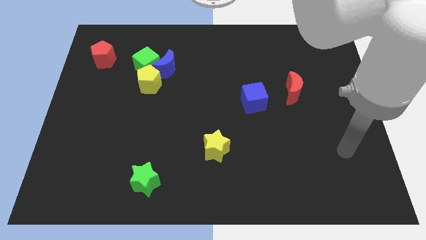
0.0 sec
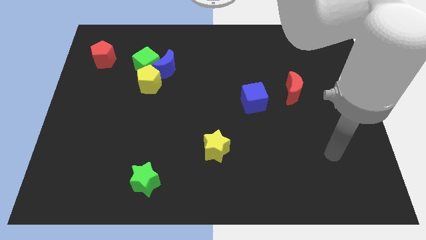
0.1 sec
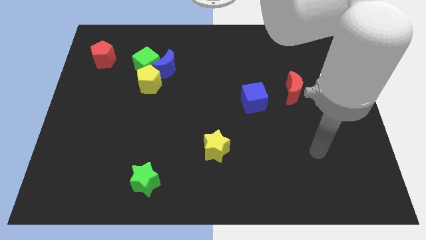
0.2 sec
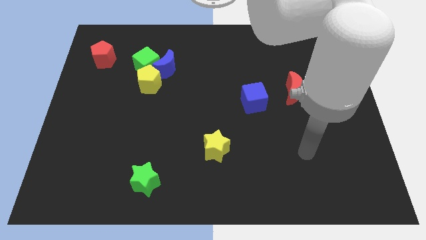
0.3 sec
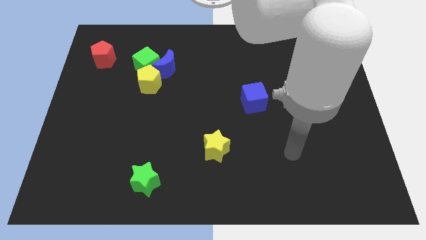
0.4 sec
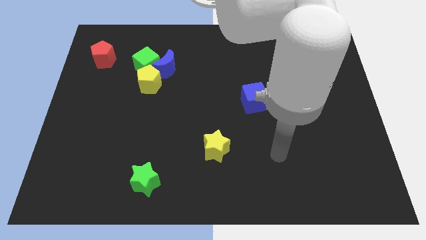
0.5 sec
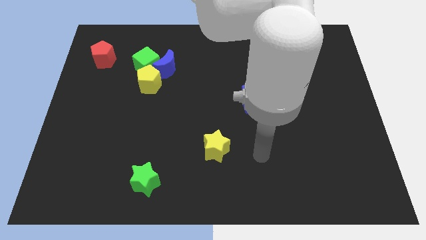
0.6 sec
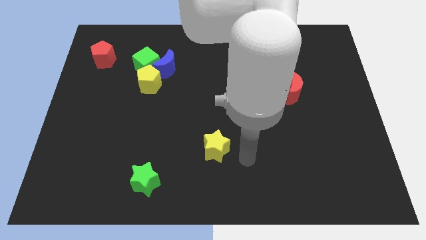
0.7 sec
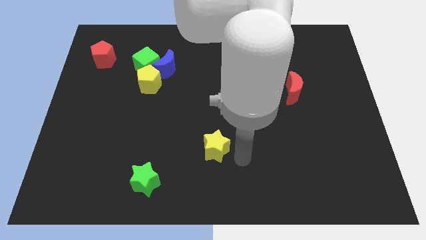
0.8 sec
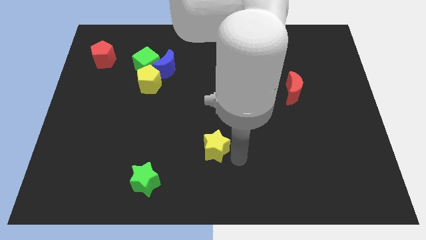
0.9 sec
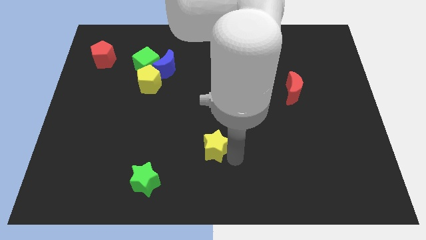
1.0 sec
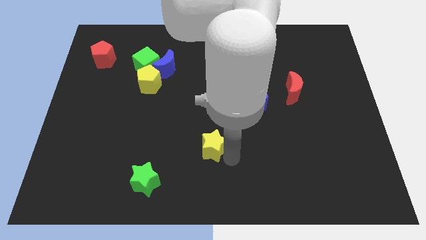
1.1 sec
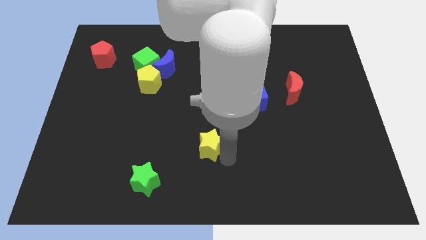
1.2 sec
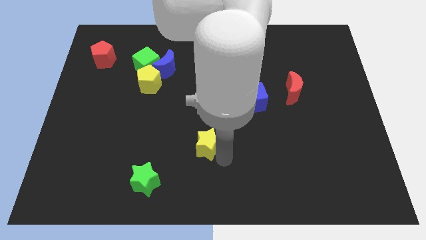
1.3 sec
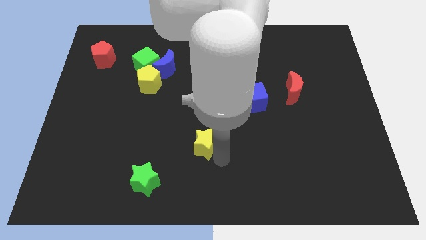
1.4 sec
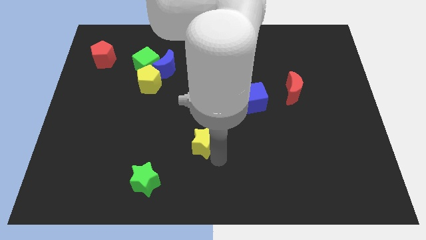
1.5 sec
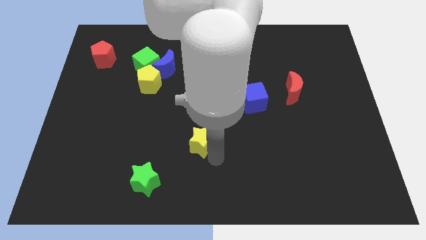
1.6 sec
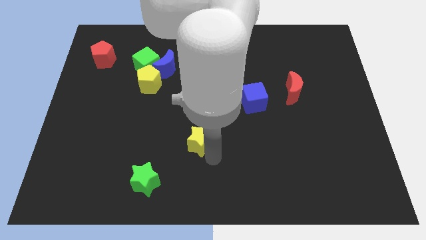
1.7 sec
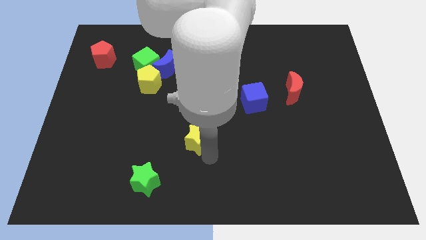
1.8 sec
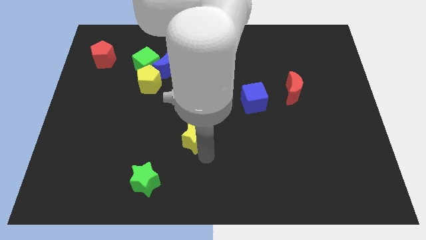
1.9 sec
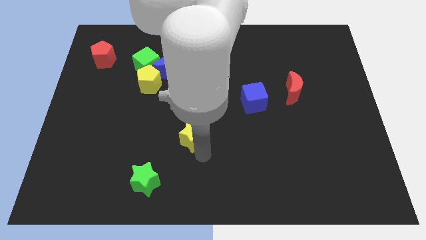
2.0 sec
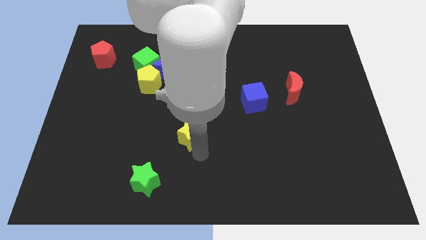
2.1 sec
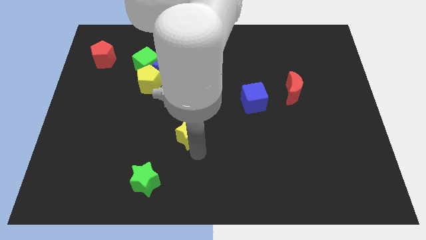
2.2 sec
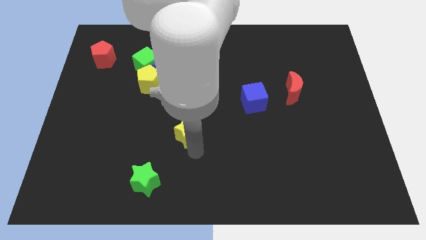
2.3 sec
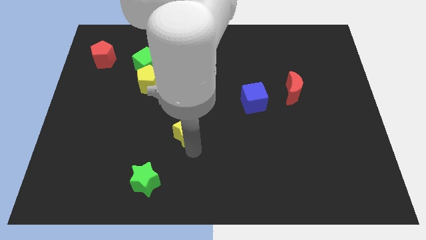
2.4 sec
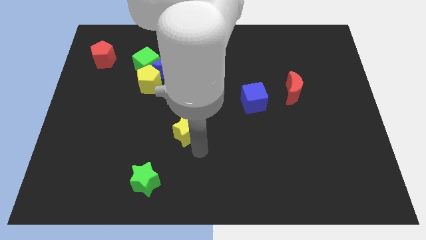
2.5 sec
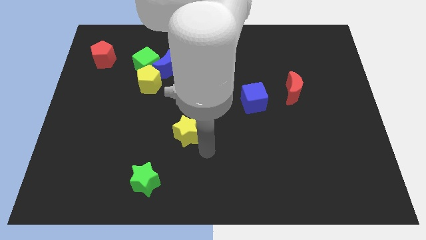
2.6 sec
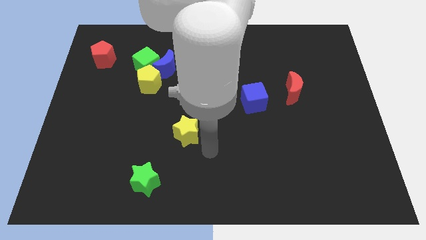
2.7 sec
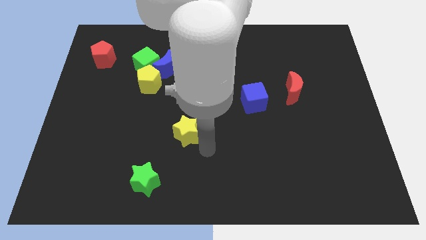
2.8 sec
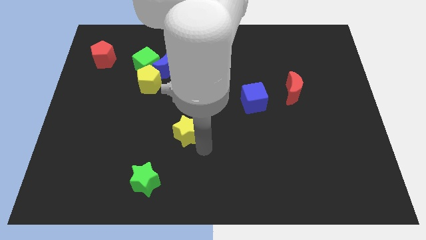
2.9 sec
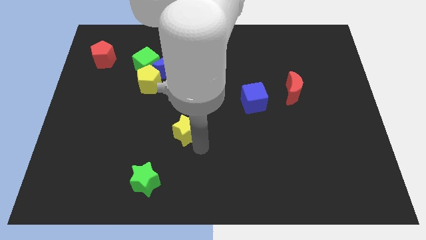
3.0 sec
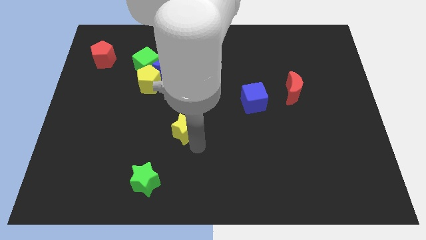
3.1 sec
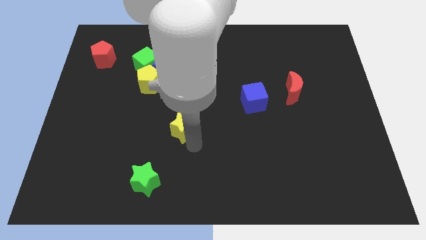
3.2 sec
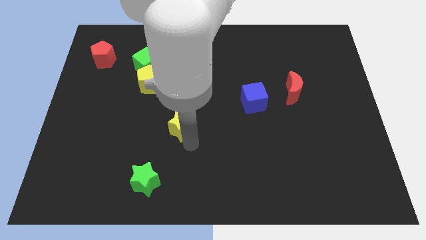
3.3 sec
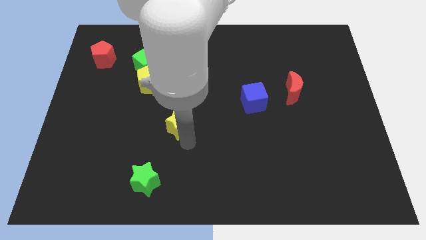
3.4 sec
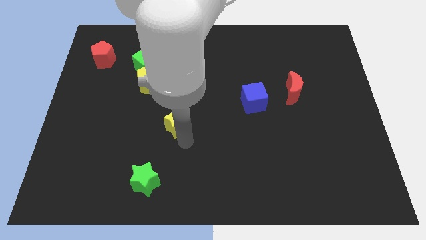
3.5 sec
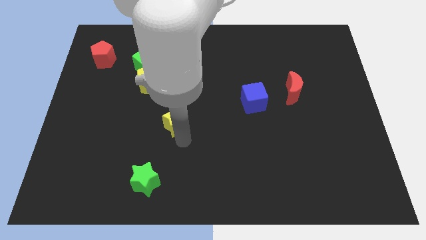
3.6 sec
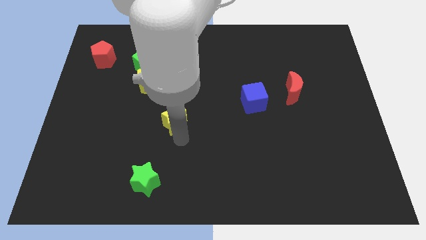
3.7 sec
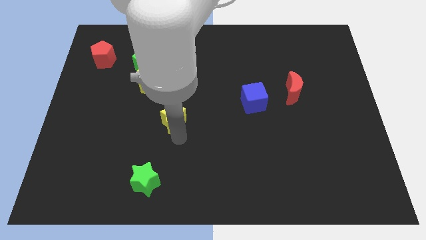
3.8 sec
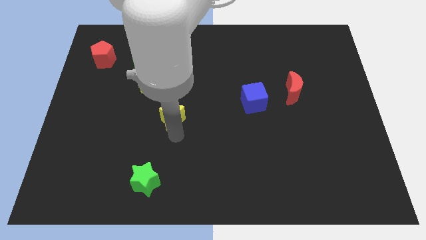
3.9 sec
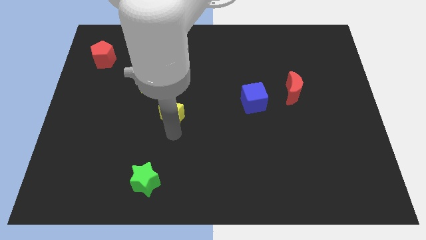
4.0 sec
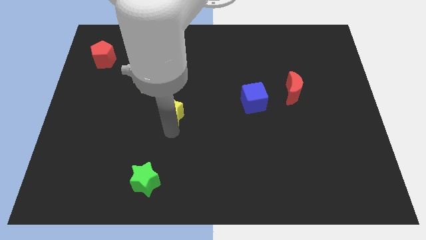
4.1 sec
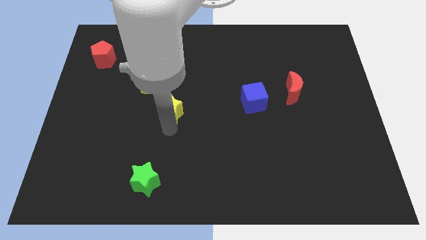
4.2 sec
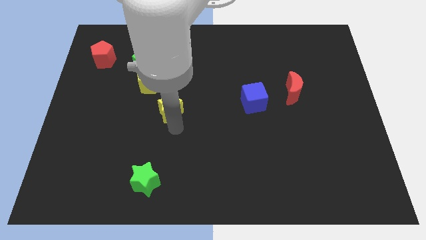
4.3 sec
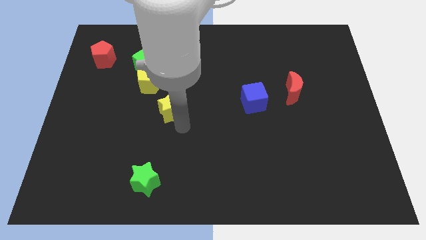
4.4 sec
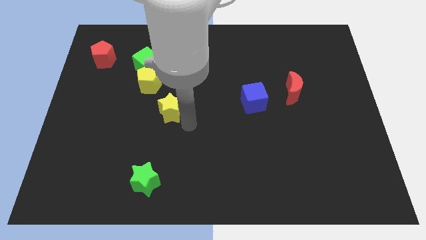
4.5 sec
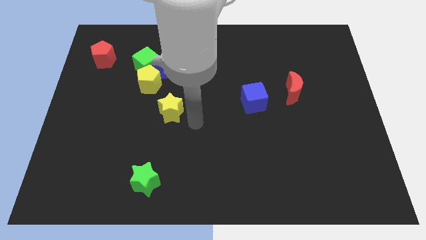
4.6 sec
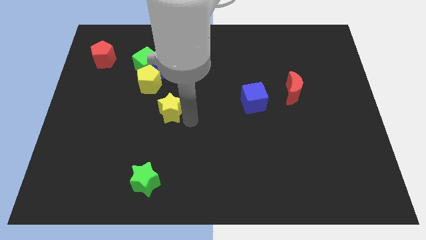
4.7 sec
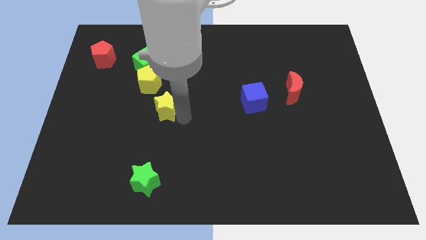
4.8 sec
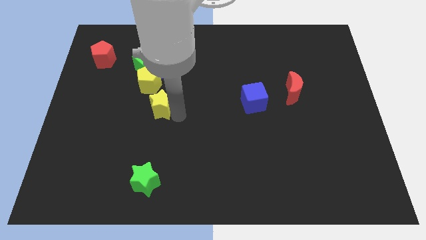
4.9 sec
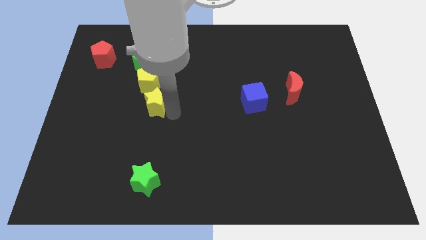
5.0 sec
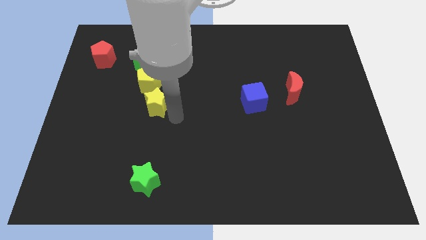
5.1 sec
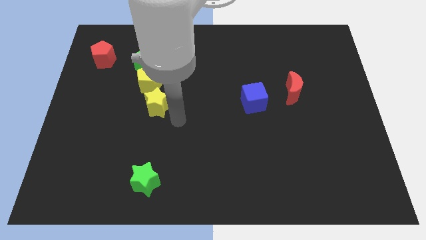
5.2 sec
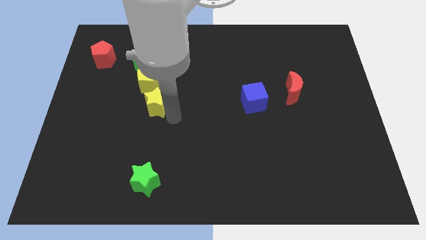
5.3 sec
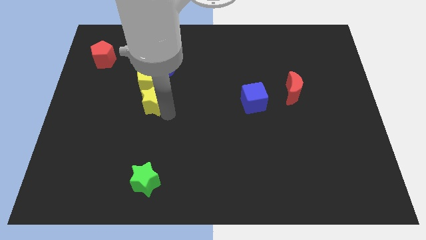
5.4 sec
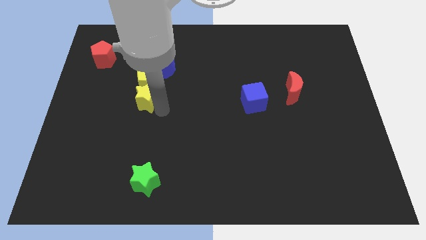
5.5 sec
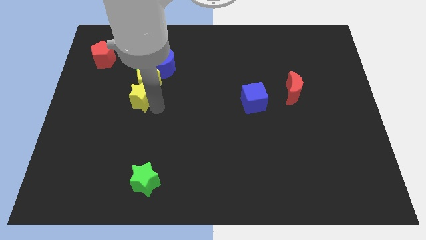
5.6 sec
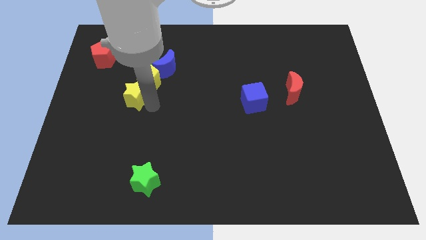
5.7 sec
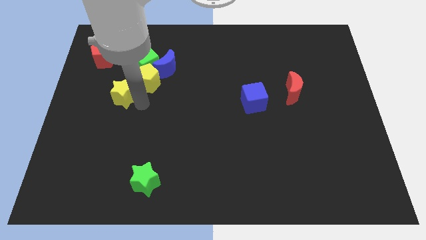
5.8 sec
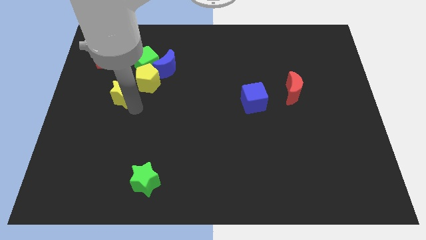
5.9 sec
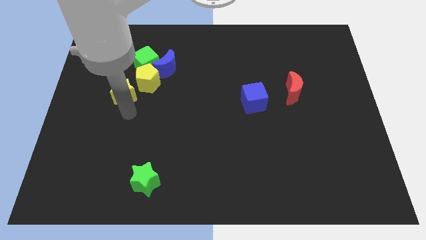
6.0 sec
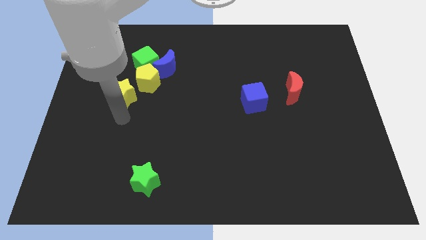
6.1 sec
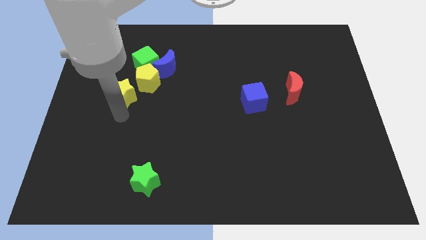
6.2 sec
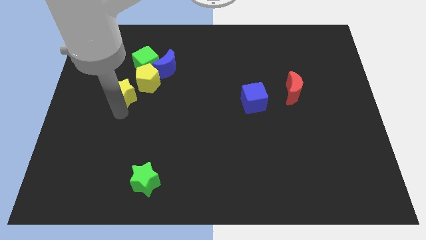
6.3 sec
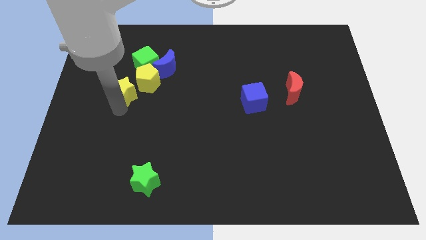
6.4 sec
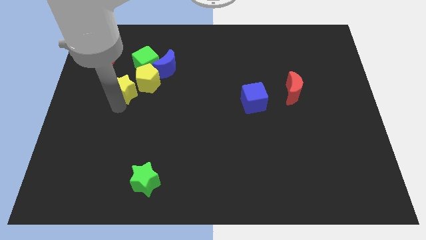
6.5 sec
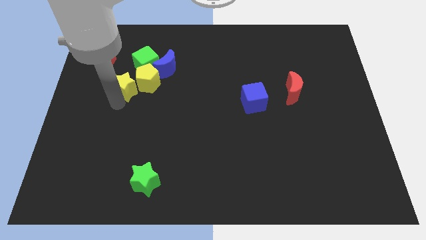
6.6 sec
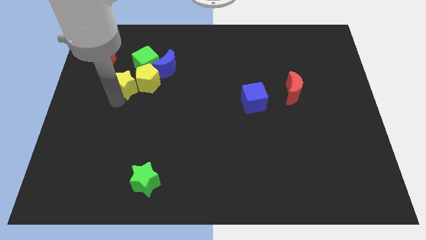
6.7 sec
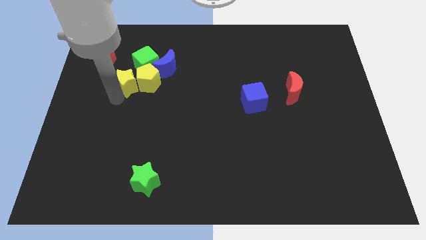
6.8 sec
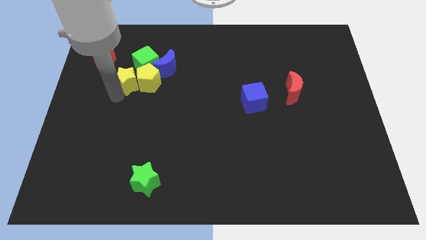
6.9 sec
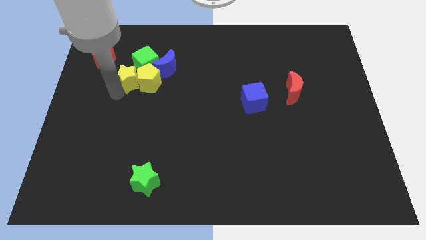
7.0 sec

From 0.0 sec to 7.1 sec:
push the yellow star just left of the blue moon

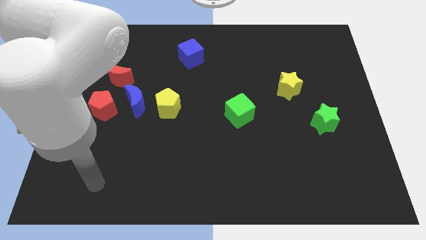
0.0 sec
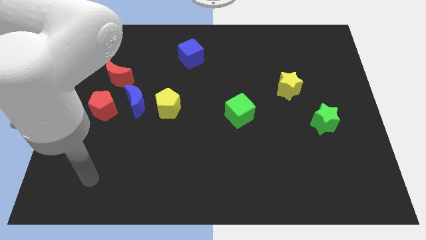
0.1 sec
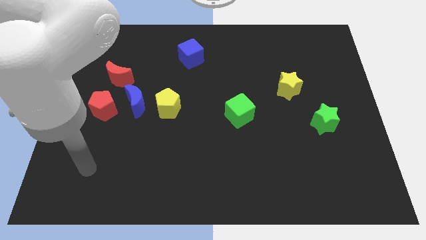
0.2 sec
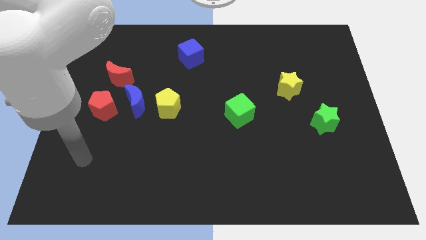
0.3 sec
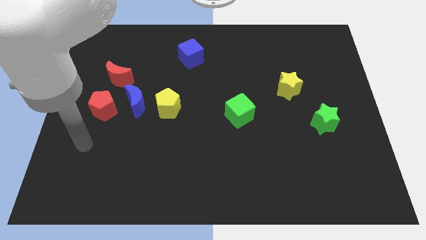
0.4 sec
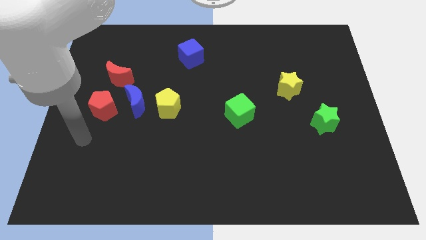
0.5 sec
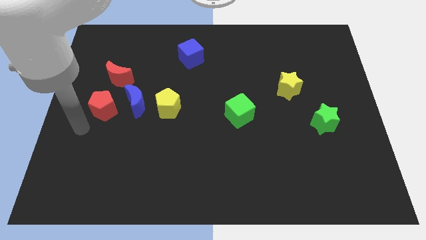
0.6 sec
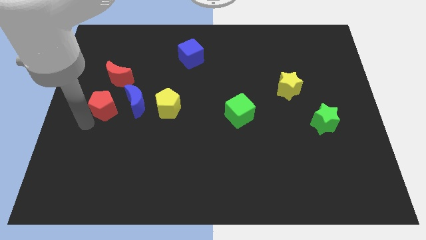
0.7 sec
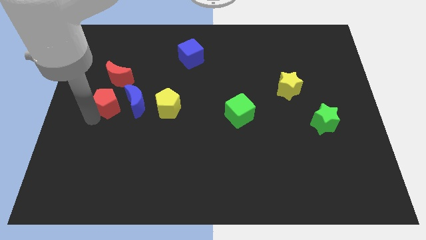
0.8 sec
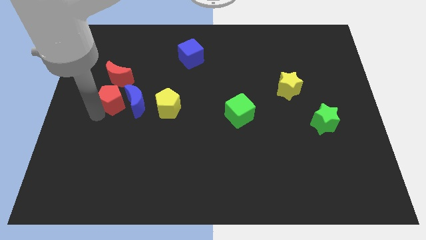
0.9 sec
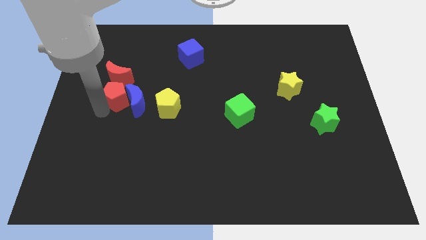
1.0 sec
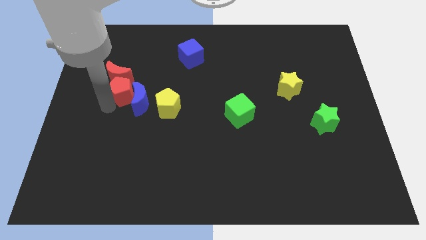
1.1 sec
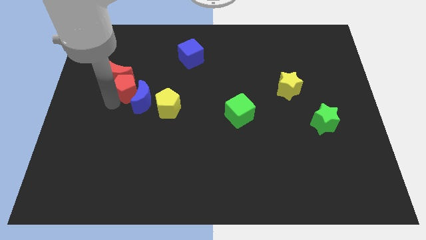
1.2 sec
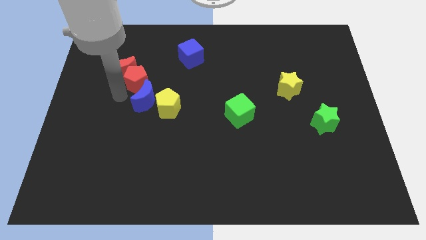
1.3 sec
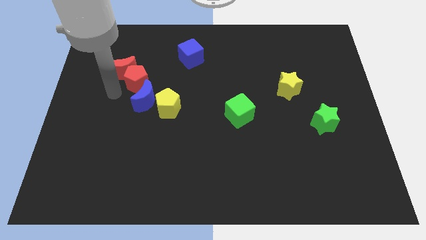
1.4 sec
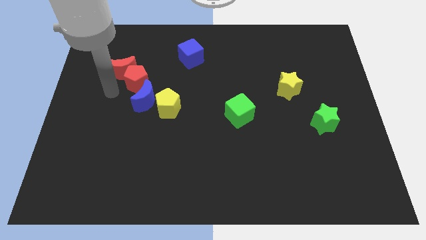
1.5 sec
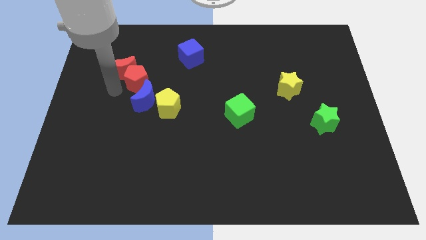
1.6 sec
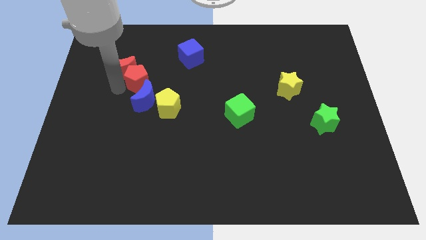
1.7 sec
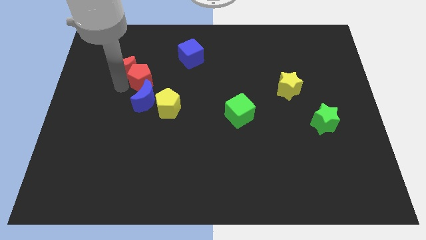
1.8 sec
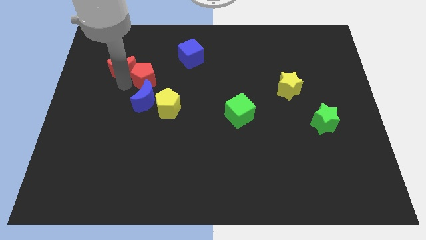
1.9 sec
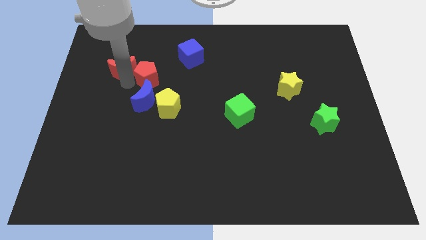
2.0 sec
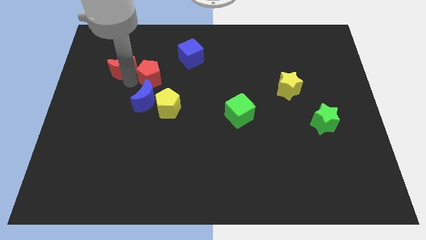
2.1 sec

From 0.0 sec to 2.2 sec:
slide the red pentagon to the bottom left of the blue cube
